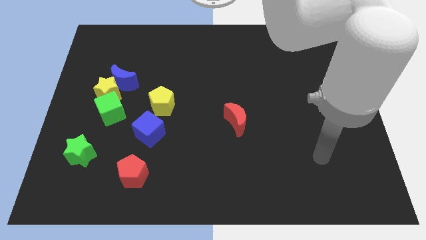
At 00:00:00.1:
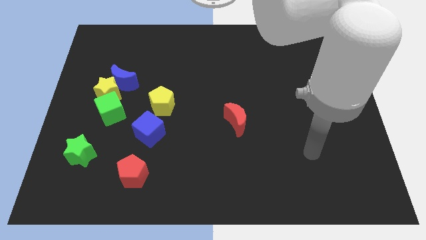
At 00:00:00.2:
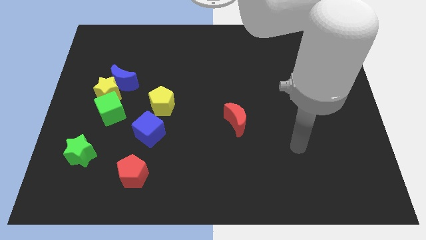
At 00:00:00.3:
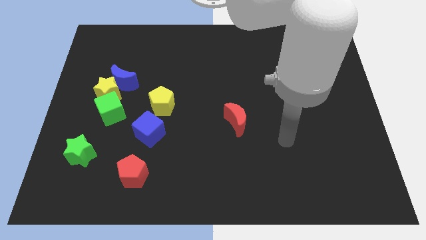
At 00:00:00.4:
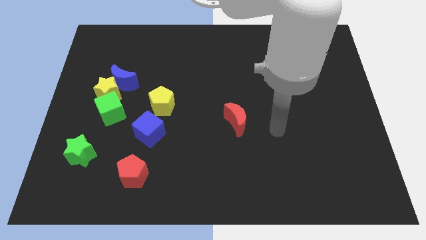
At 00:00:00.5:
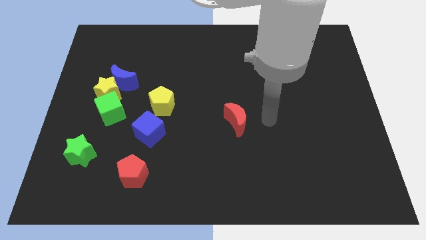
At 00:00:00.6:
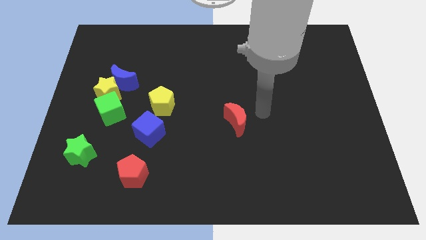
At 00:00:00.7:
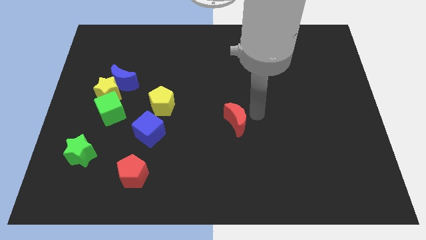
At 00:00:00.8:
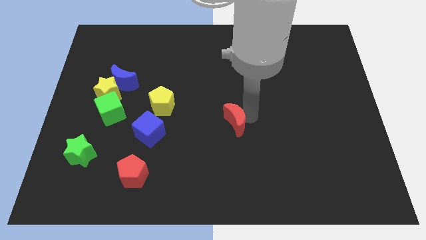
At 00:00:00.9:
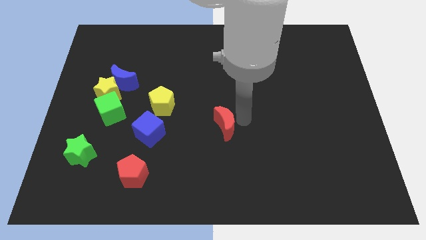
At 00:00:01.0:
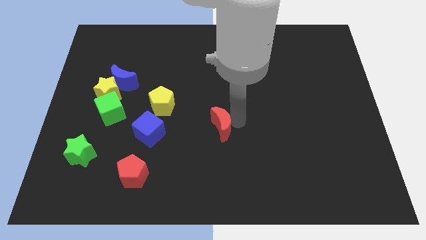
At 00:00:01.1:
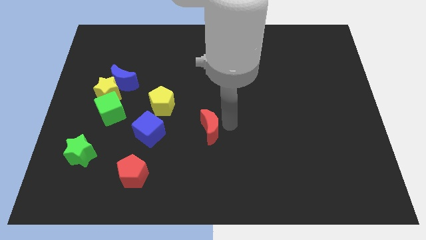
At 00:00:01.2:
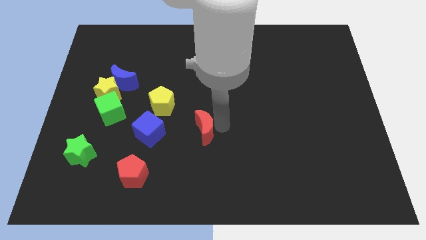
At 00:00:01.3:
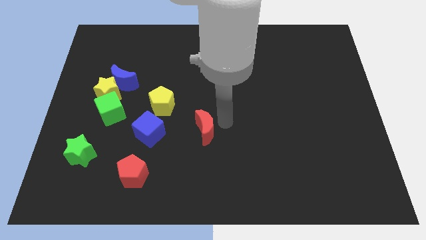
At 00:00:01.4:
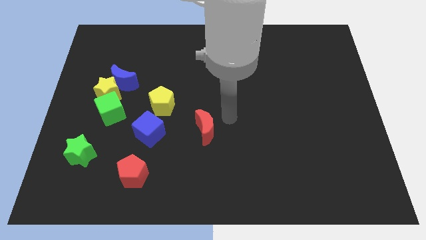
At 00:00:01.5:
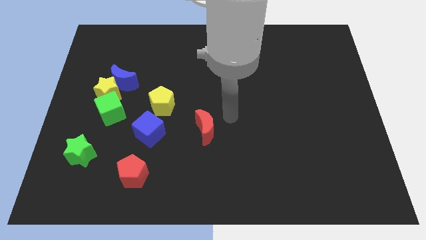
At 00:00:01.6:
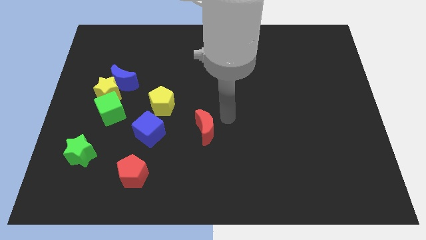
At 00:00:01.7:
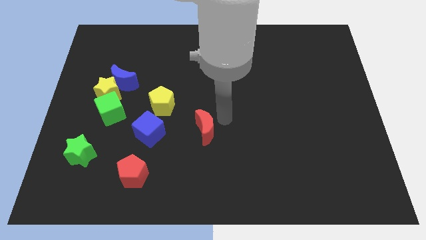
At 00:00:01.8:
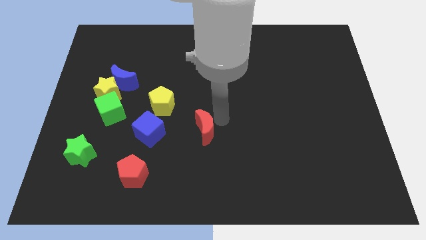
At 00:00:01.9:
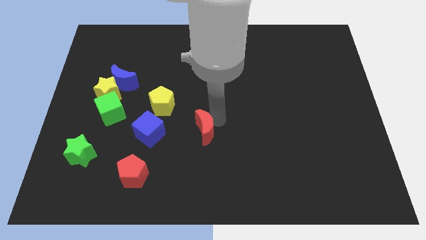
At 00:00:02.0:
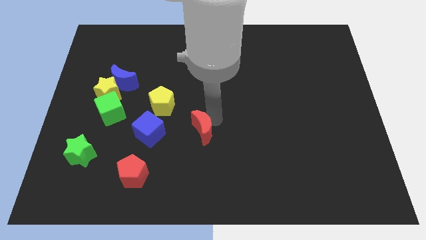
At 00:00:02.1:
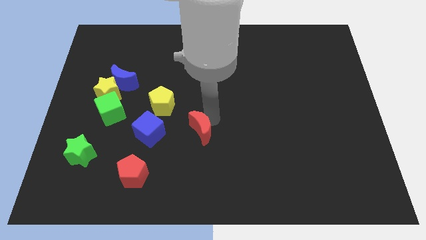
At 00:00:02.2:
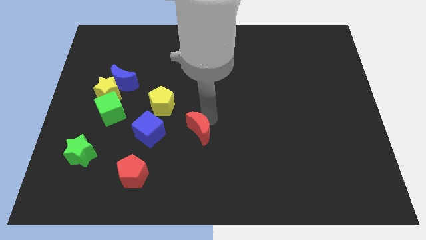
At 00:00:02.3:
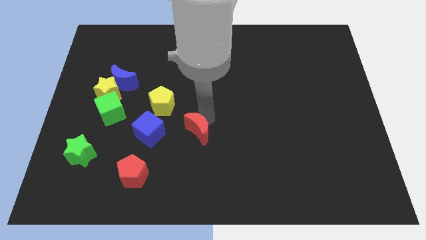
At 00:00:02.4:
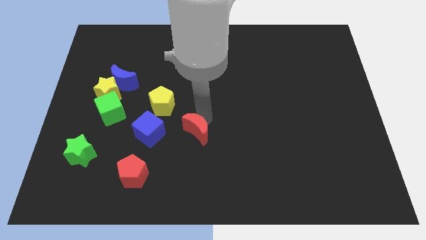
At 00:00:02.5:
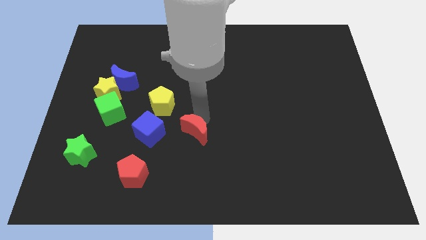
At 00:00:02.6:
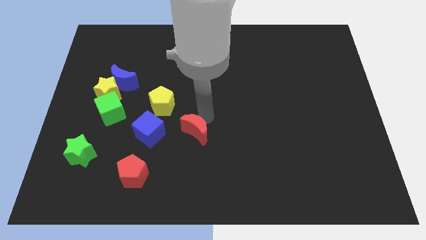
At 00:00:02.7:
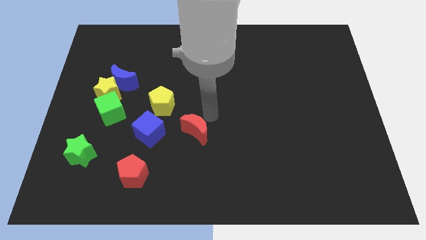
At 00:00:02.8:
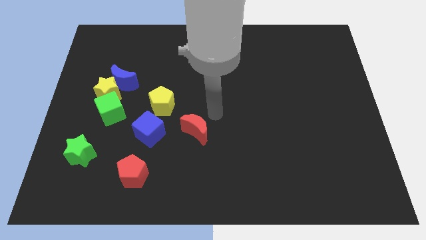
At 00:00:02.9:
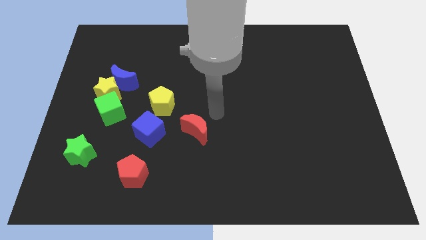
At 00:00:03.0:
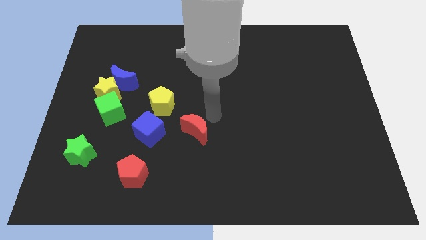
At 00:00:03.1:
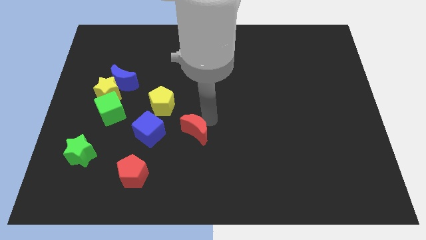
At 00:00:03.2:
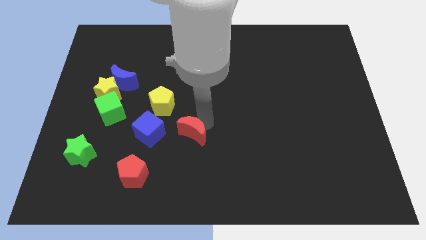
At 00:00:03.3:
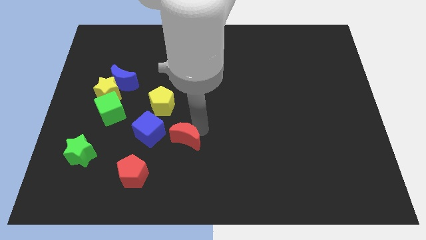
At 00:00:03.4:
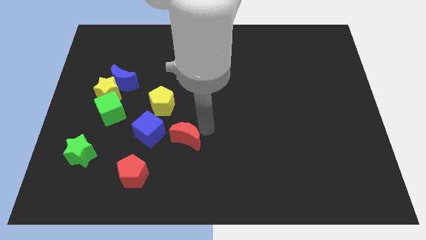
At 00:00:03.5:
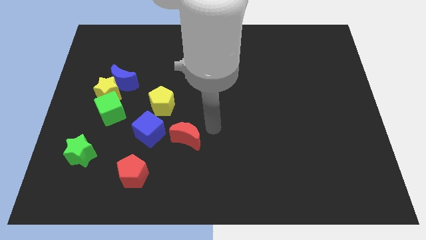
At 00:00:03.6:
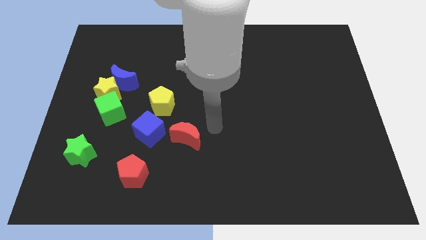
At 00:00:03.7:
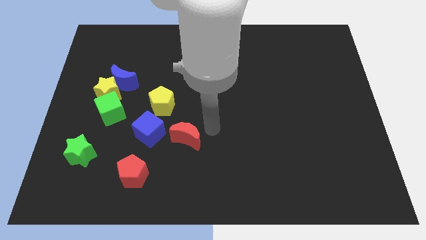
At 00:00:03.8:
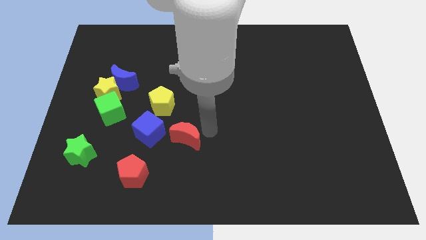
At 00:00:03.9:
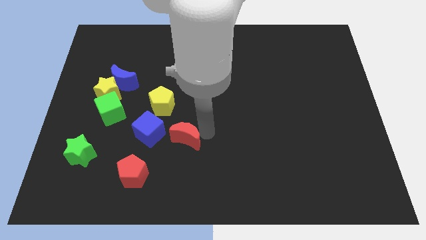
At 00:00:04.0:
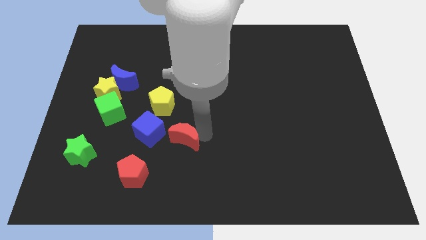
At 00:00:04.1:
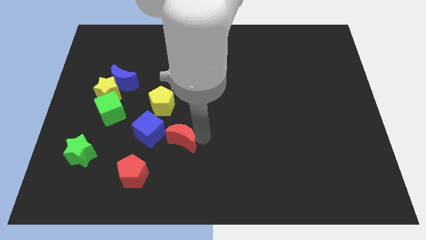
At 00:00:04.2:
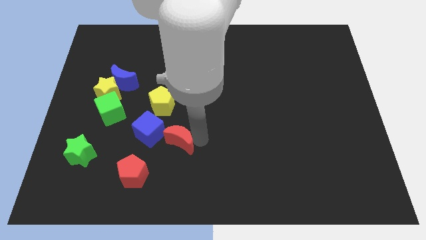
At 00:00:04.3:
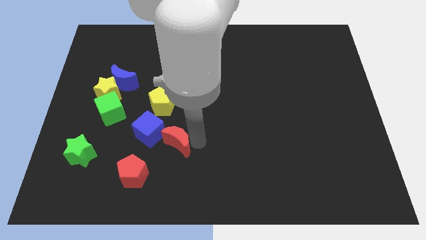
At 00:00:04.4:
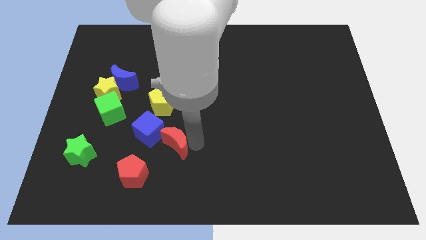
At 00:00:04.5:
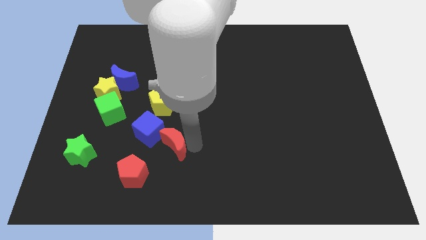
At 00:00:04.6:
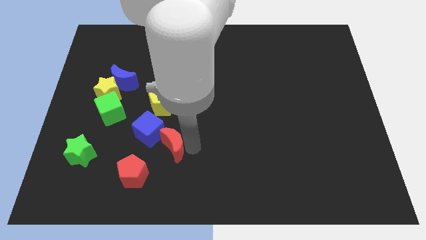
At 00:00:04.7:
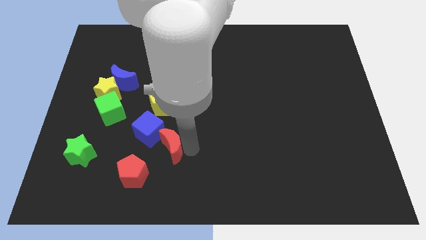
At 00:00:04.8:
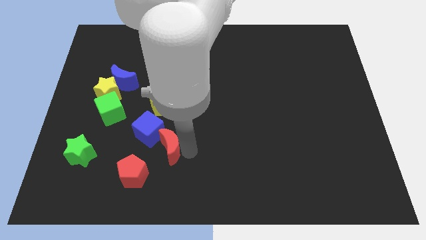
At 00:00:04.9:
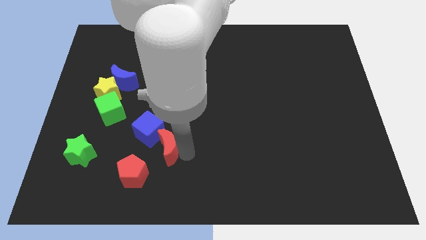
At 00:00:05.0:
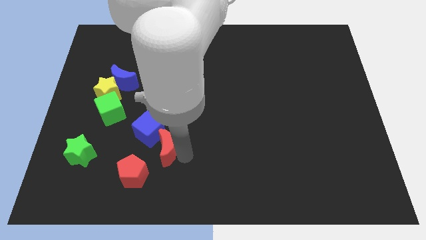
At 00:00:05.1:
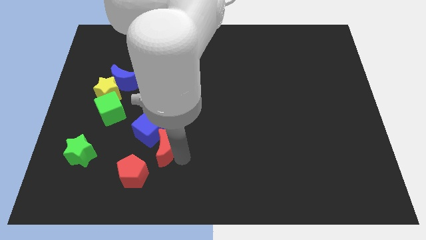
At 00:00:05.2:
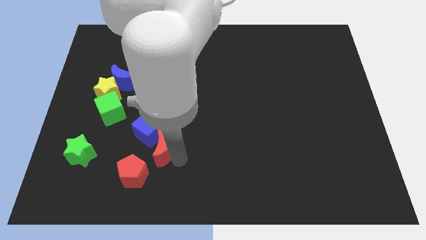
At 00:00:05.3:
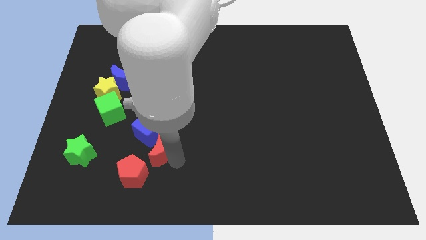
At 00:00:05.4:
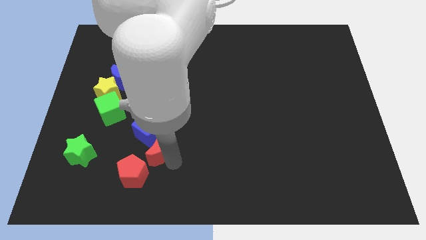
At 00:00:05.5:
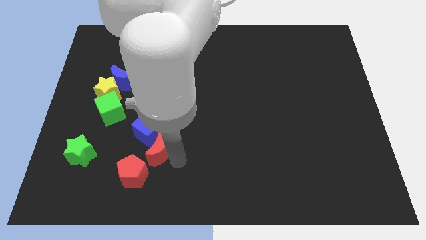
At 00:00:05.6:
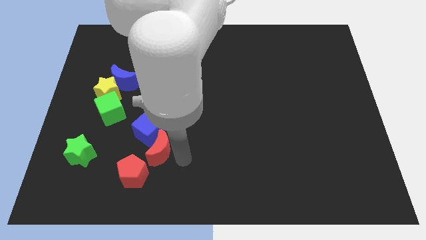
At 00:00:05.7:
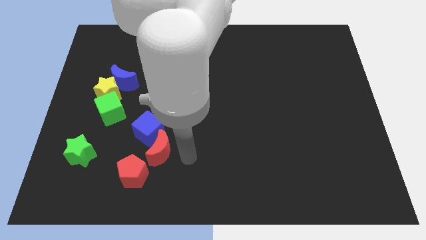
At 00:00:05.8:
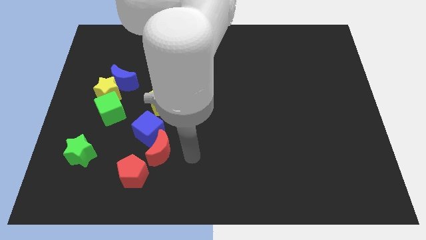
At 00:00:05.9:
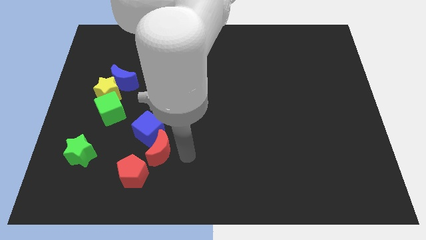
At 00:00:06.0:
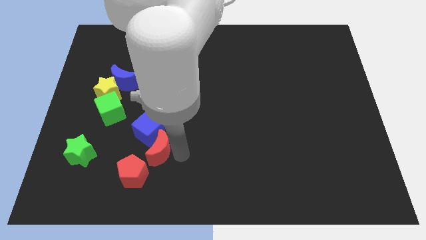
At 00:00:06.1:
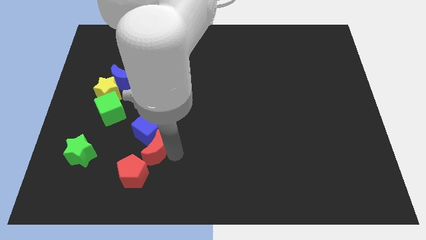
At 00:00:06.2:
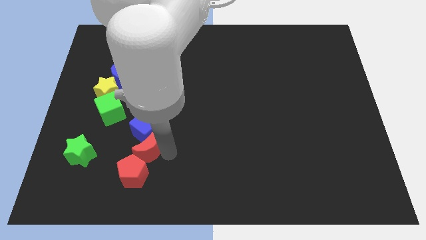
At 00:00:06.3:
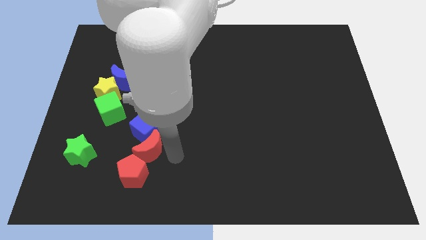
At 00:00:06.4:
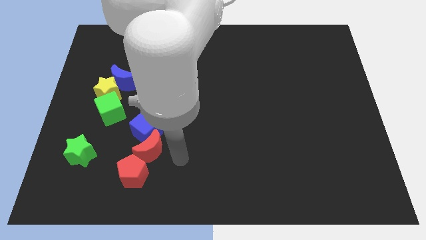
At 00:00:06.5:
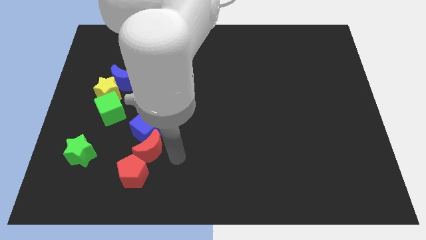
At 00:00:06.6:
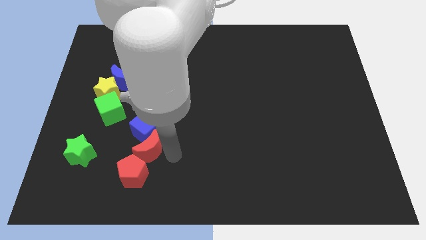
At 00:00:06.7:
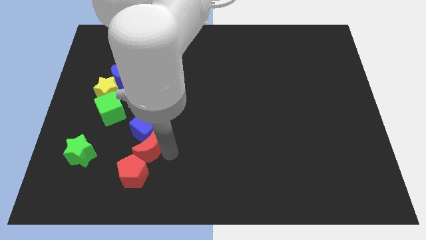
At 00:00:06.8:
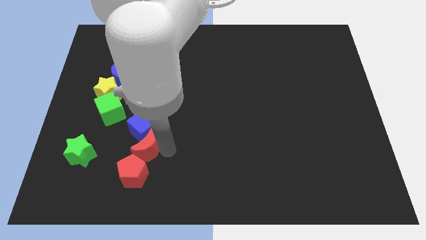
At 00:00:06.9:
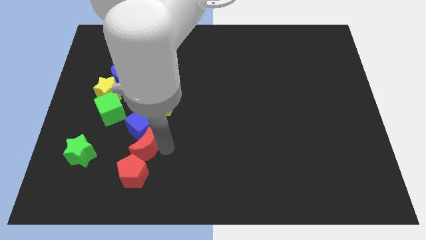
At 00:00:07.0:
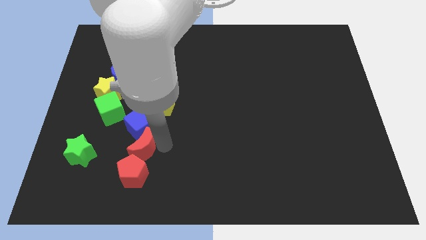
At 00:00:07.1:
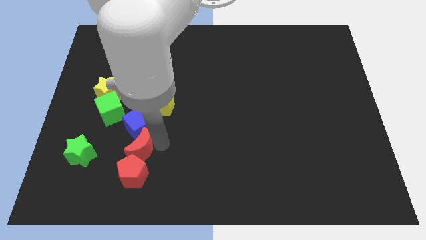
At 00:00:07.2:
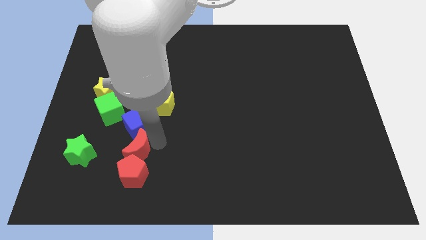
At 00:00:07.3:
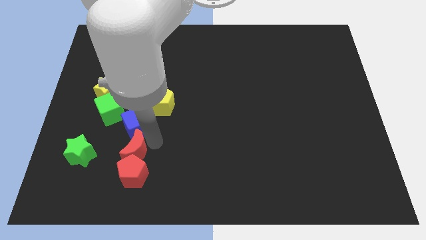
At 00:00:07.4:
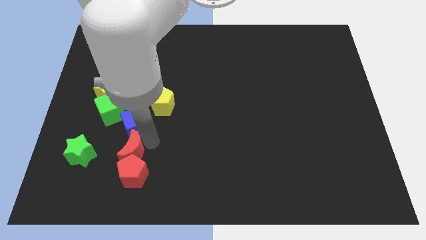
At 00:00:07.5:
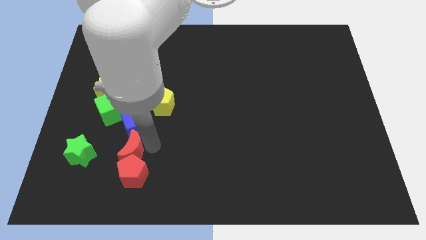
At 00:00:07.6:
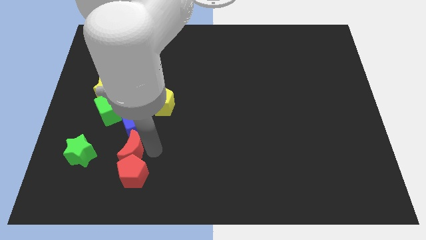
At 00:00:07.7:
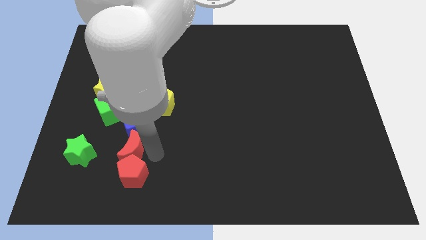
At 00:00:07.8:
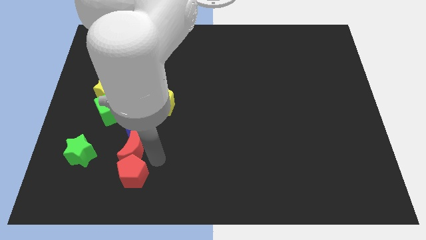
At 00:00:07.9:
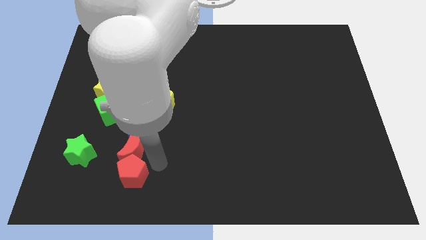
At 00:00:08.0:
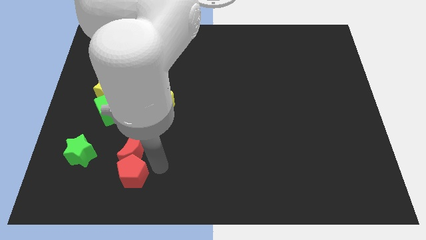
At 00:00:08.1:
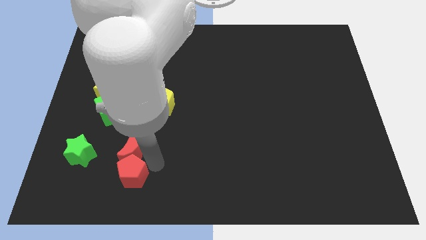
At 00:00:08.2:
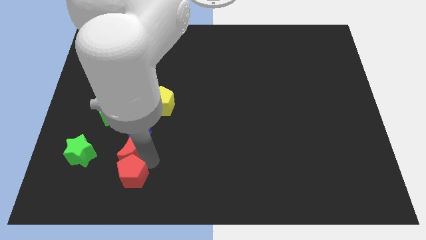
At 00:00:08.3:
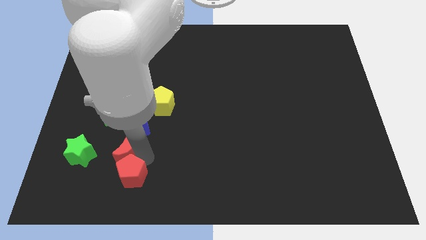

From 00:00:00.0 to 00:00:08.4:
slide the red moon left
